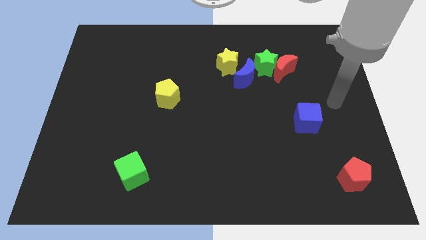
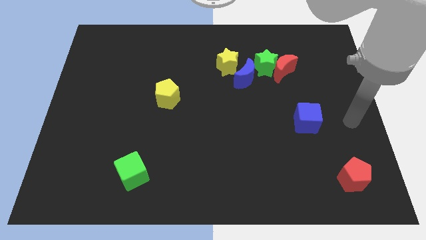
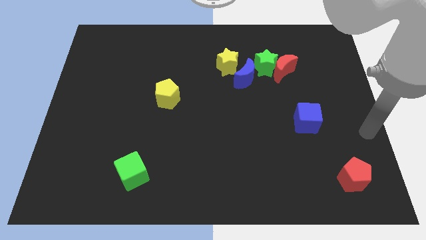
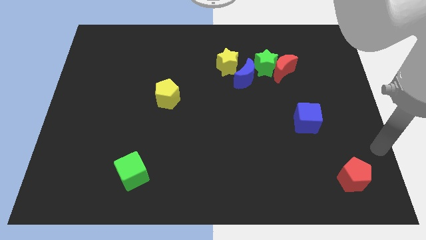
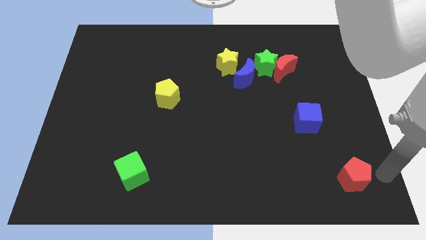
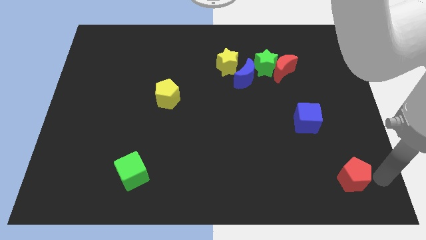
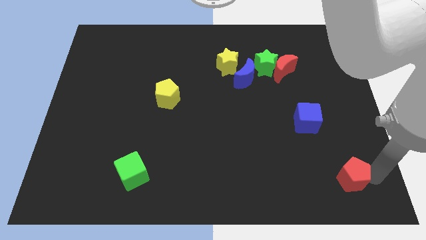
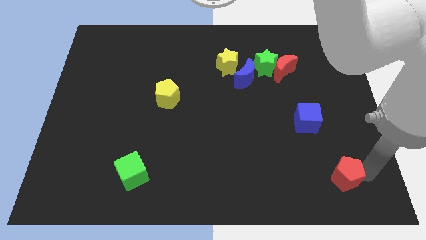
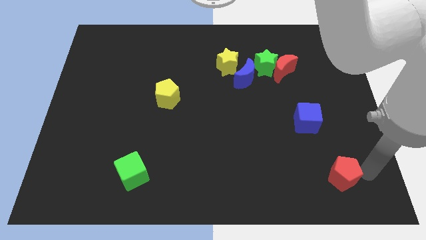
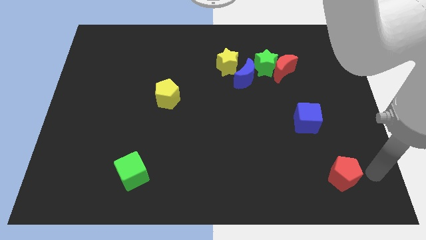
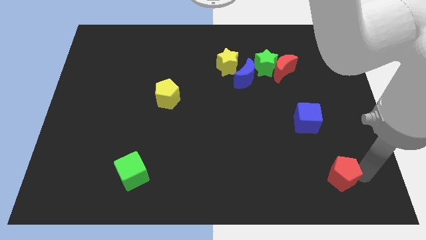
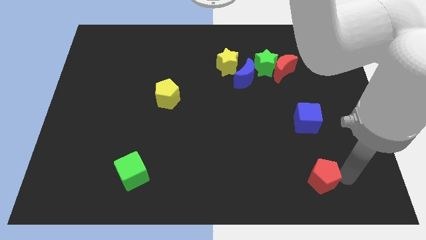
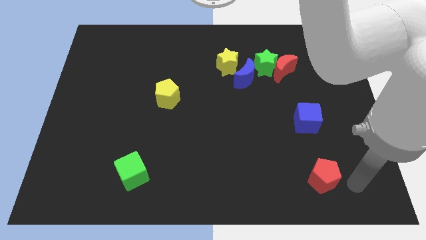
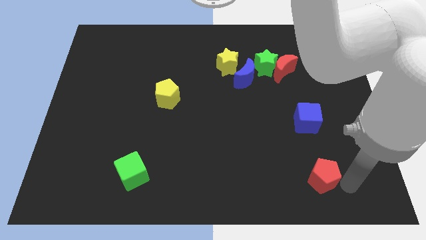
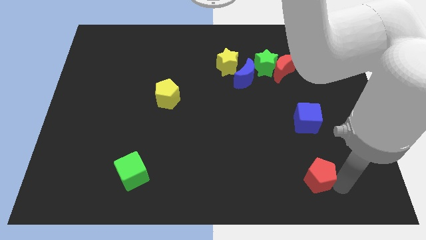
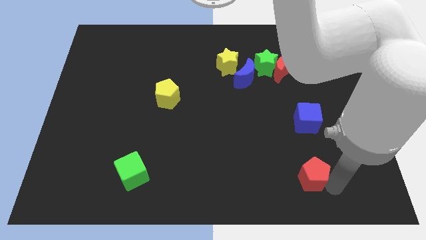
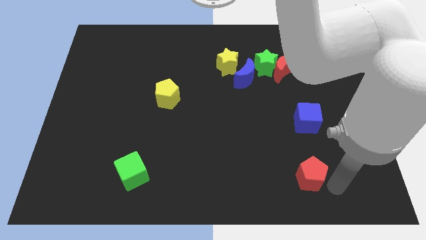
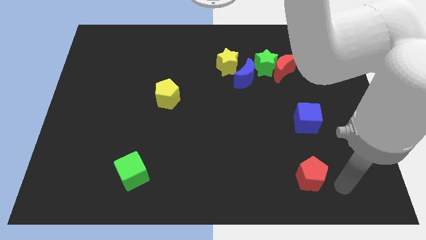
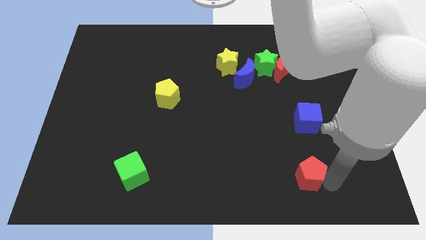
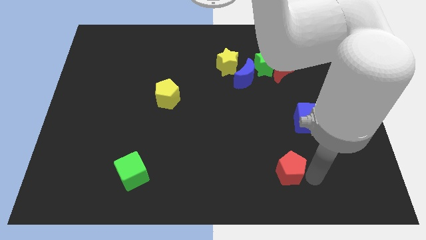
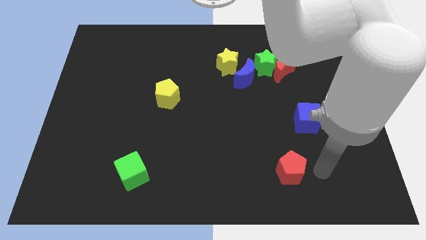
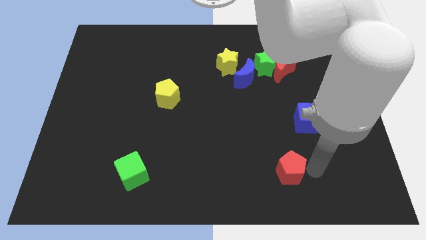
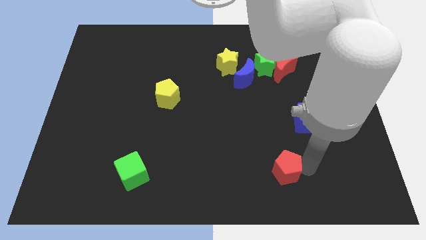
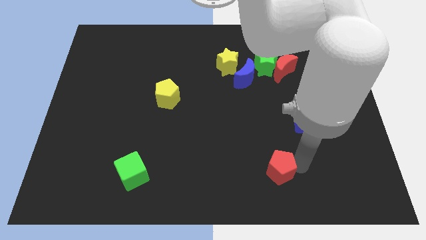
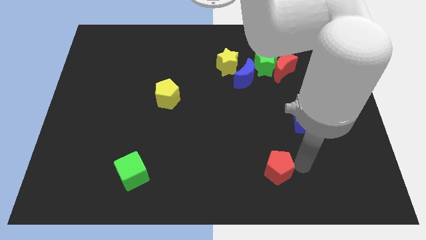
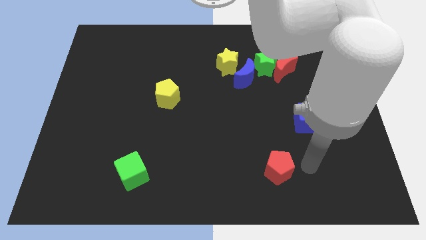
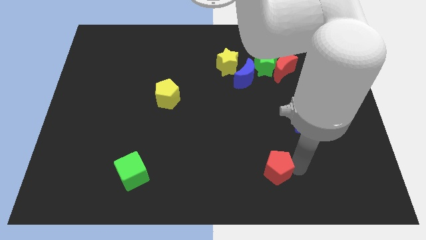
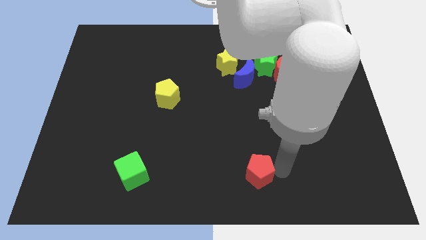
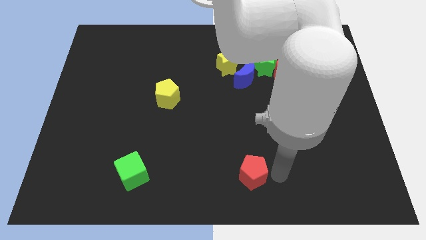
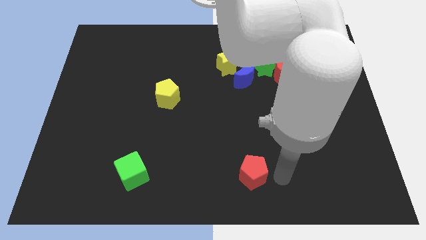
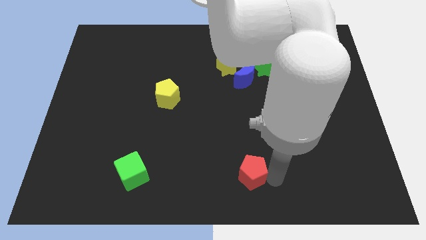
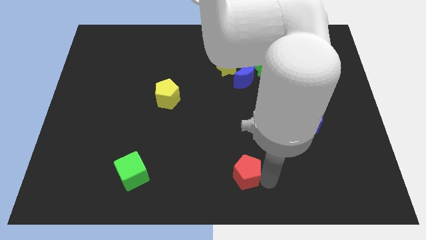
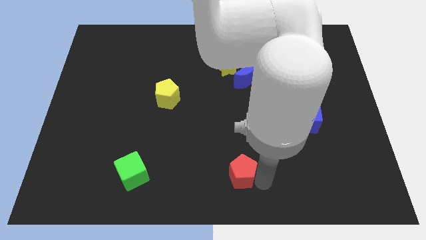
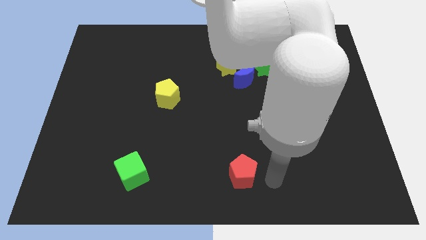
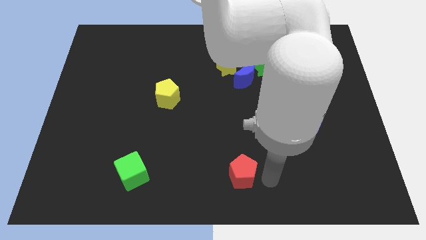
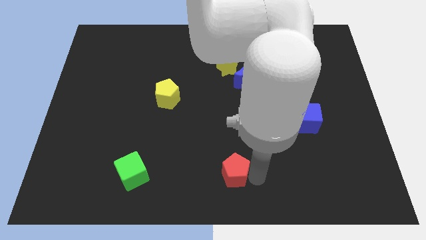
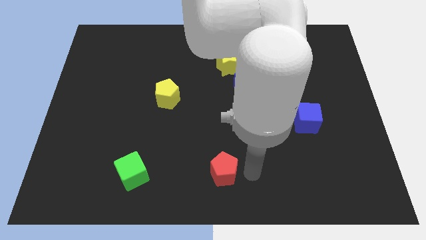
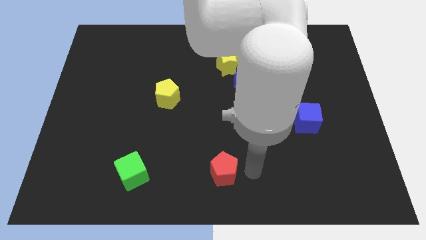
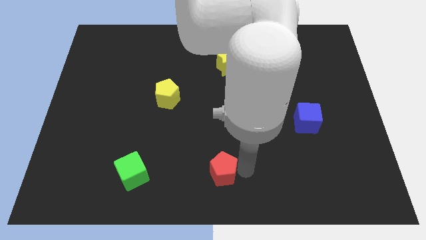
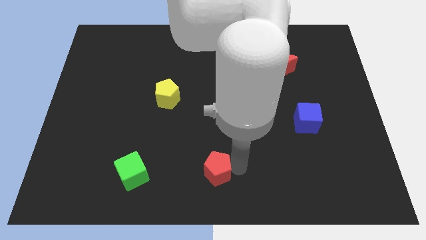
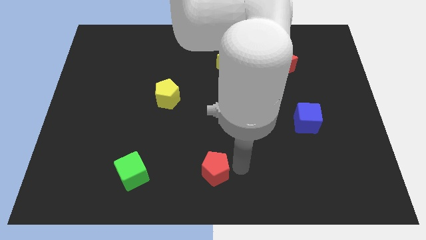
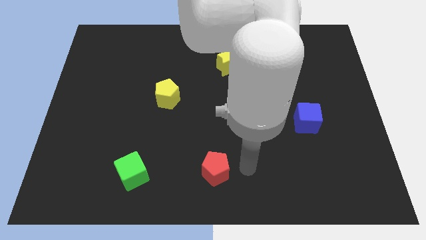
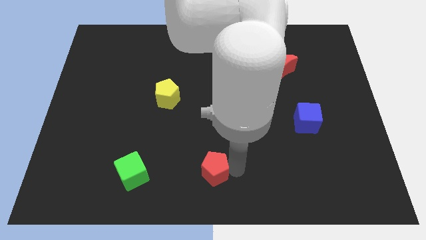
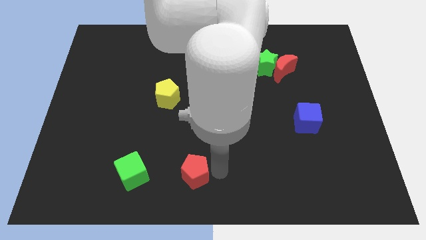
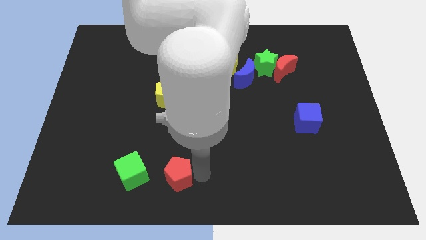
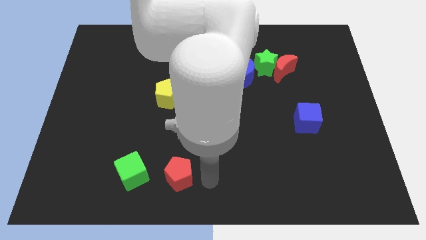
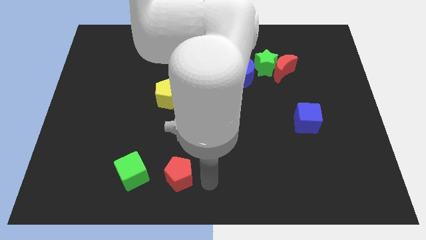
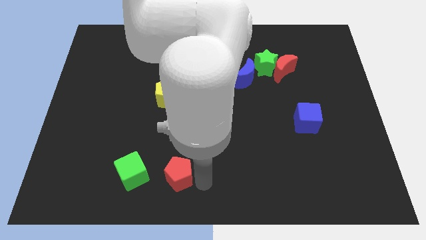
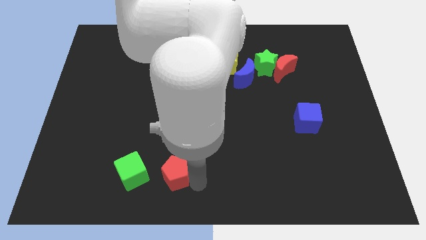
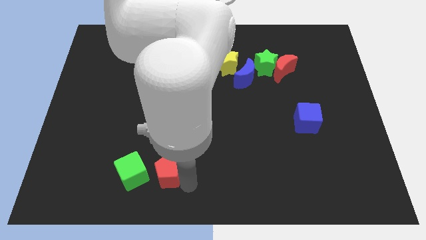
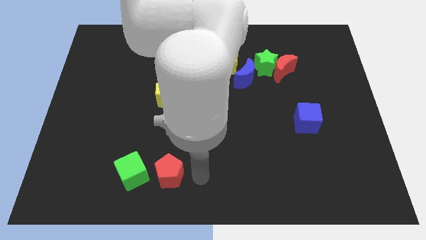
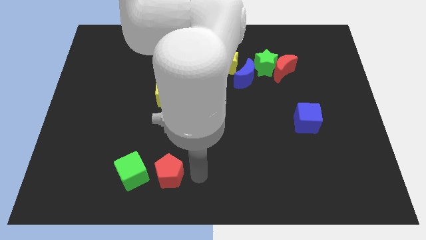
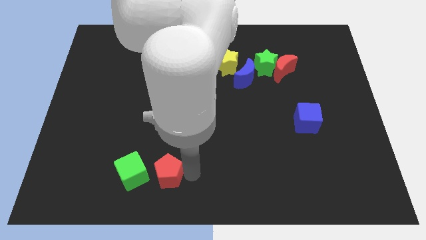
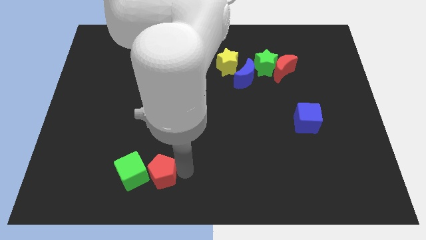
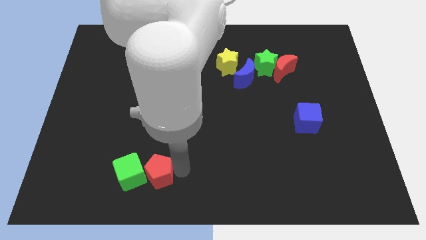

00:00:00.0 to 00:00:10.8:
put the red pentagon next to the green cube

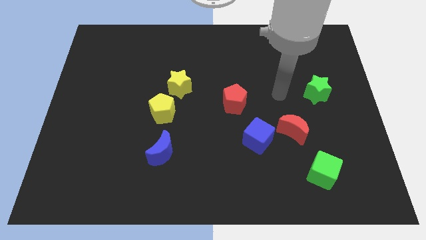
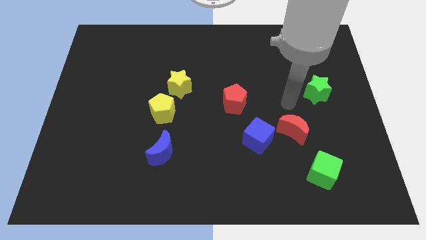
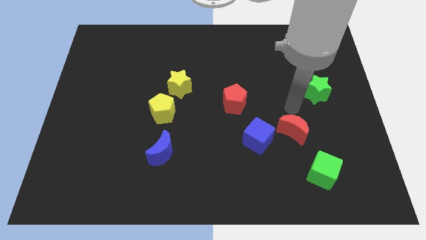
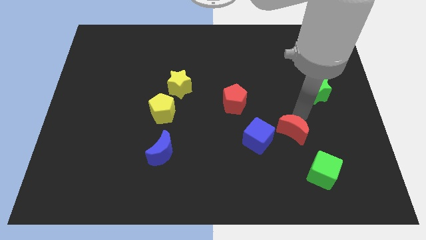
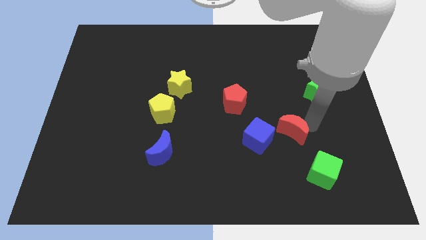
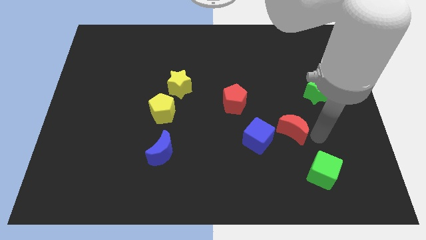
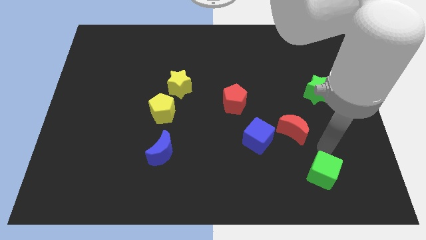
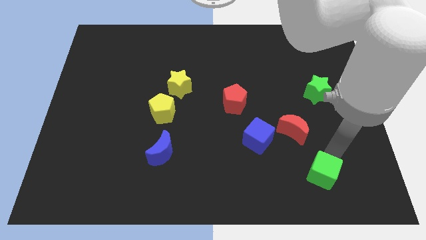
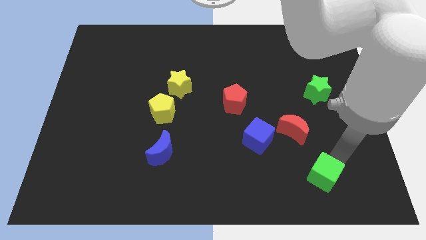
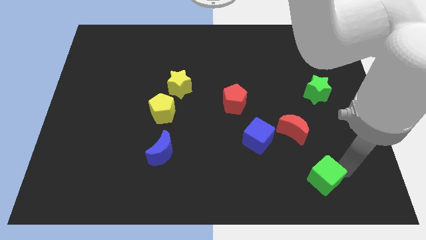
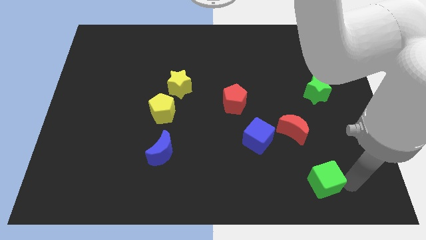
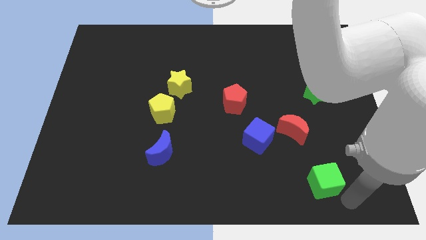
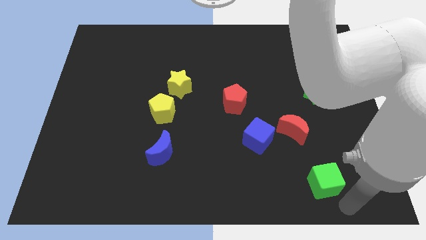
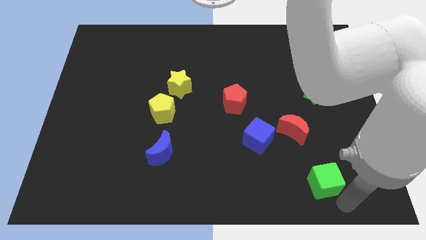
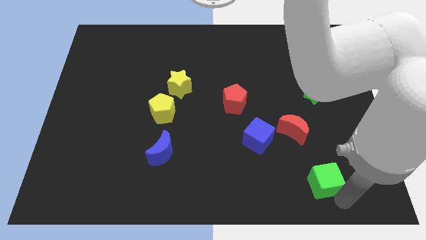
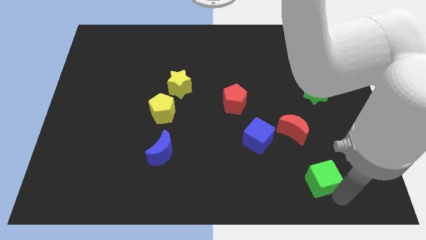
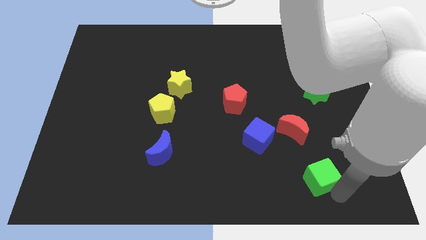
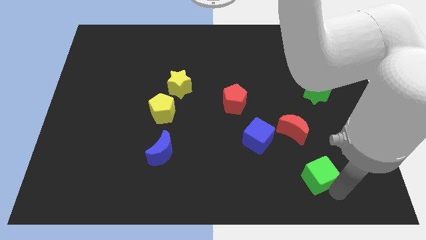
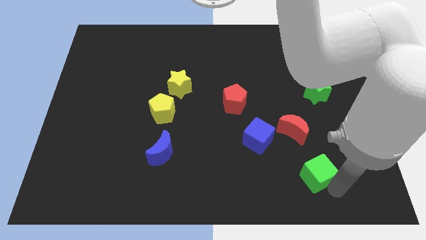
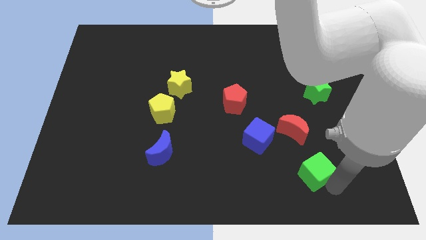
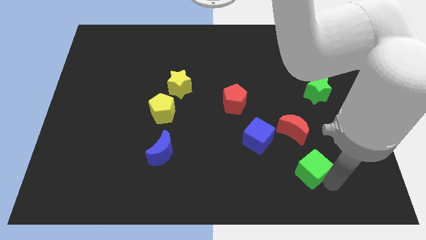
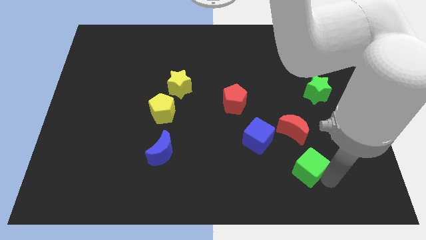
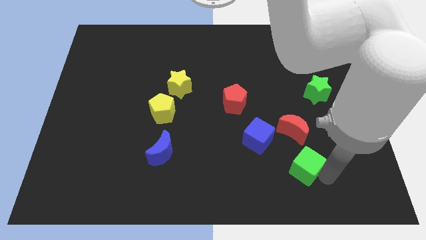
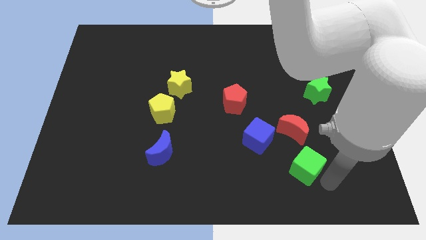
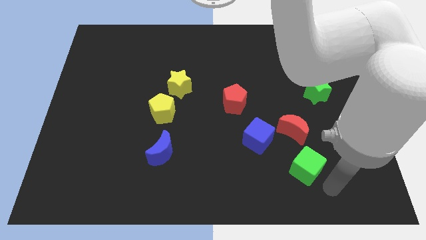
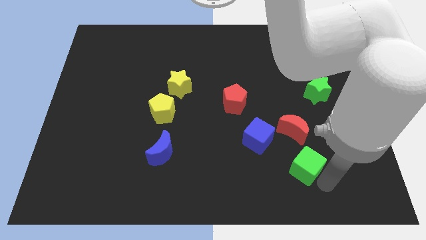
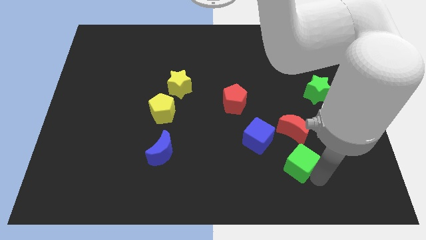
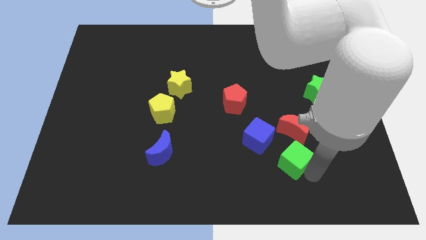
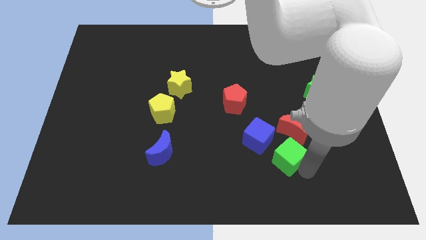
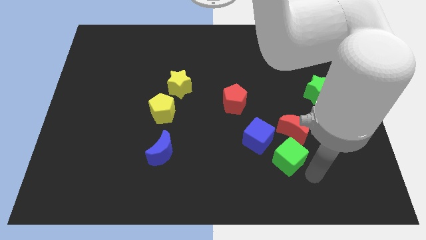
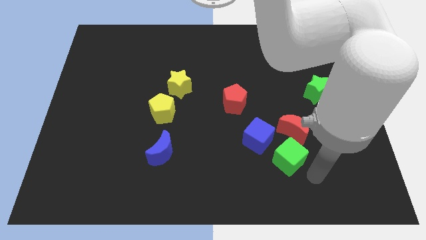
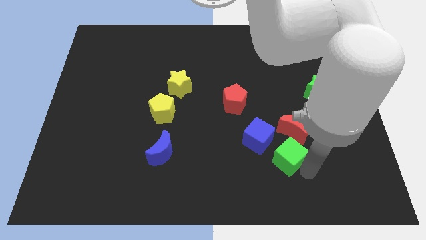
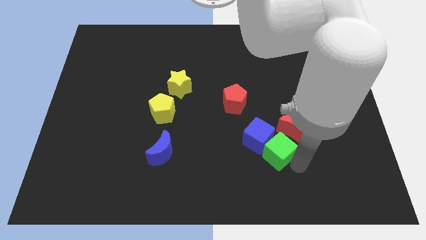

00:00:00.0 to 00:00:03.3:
move the green cube to the blue cube
